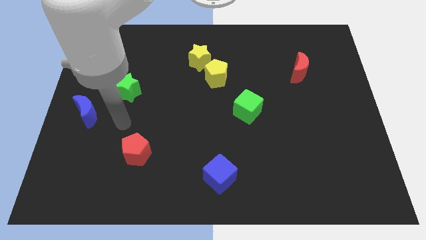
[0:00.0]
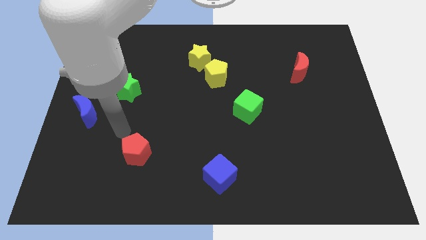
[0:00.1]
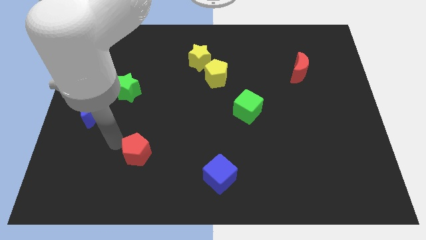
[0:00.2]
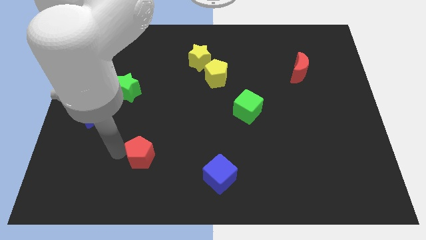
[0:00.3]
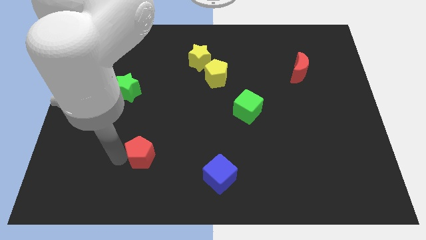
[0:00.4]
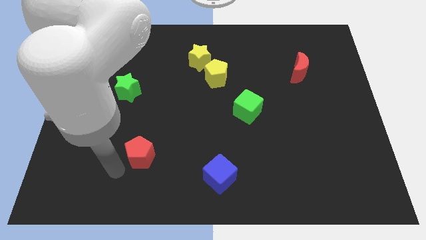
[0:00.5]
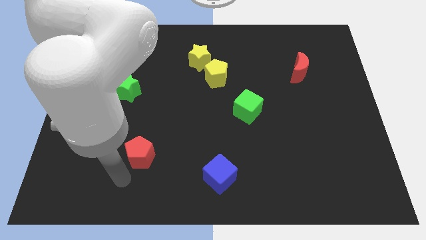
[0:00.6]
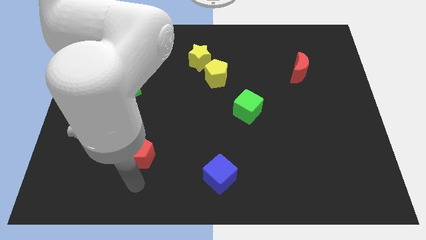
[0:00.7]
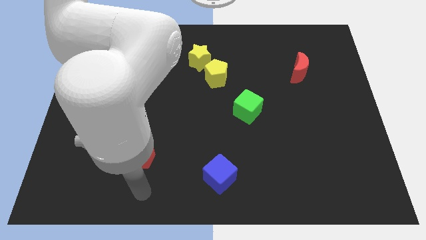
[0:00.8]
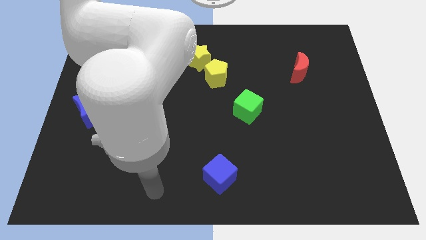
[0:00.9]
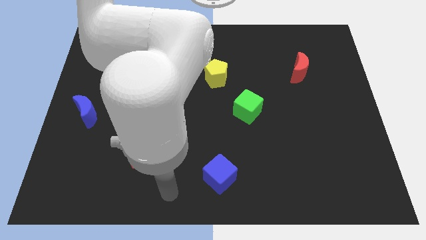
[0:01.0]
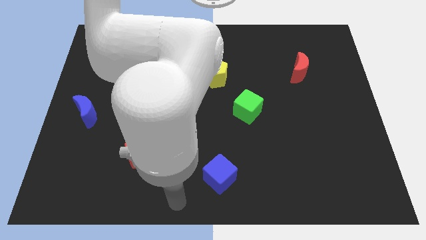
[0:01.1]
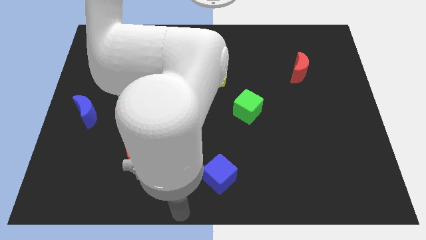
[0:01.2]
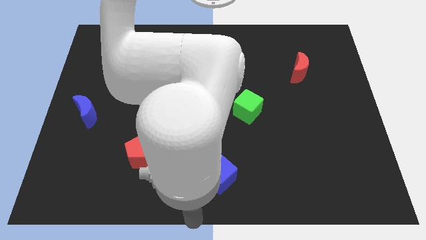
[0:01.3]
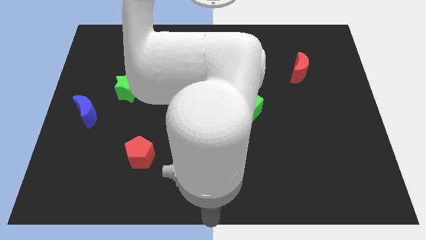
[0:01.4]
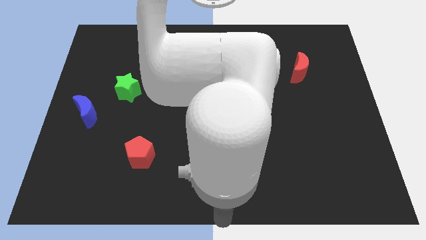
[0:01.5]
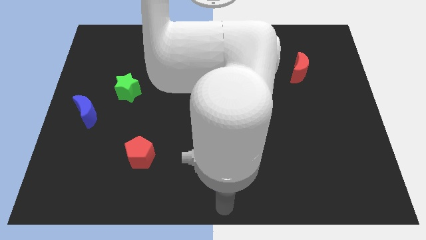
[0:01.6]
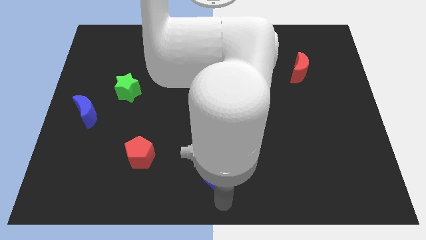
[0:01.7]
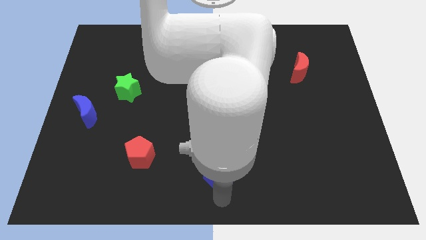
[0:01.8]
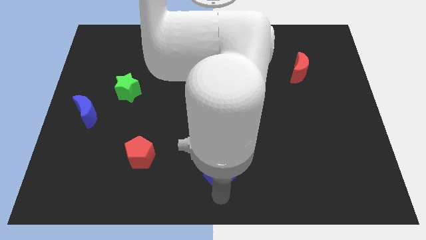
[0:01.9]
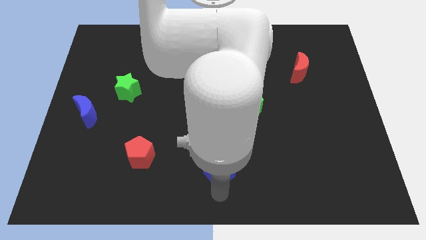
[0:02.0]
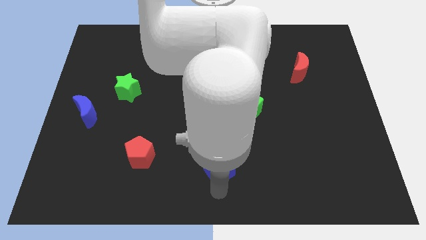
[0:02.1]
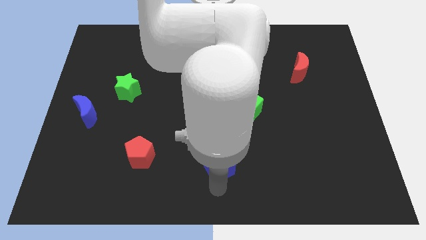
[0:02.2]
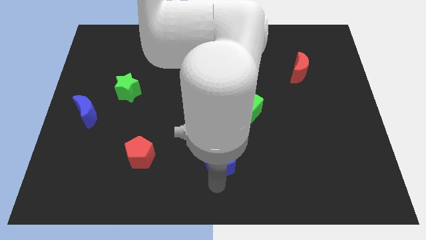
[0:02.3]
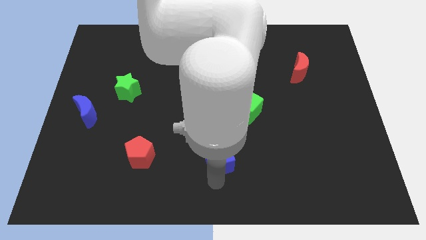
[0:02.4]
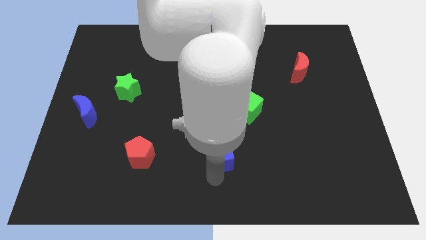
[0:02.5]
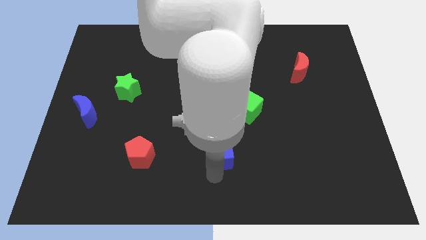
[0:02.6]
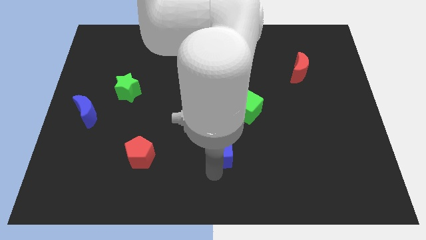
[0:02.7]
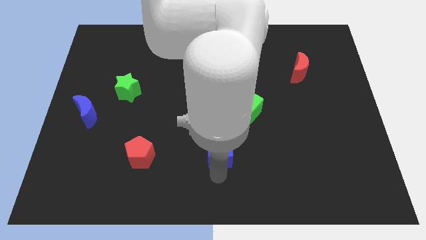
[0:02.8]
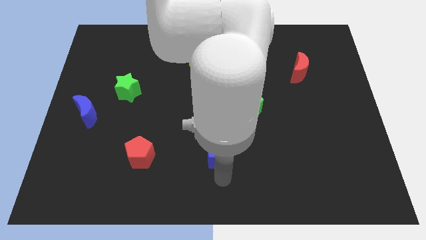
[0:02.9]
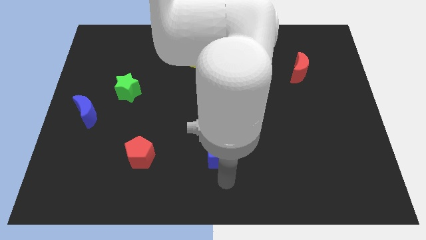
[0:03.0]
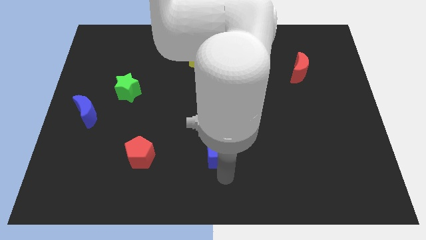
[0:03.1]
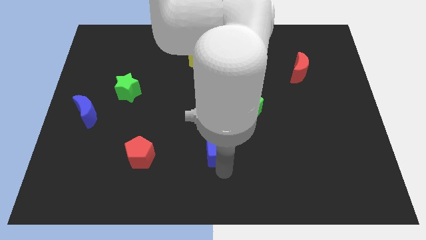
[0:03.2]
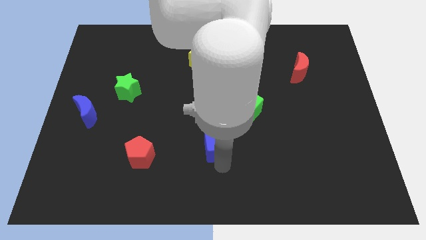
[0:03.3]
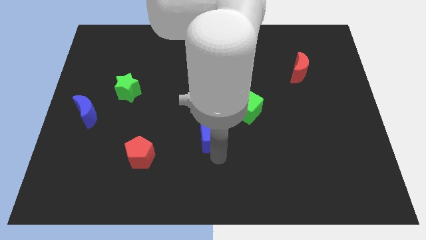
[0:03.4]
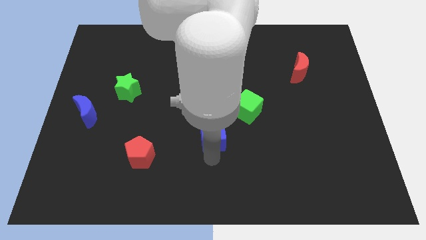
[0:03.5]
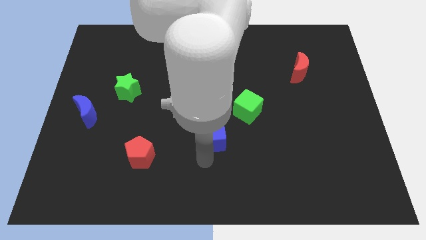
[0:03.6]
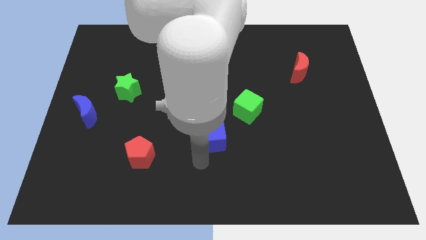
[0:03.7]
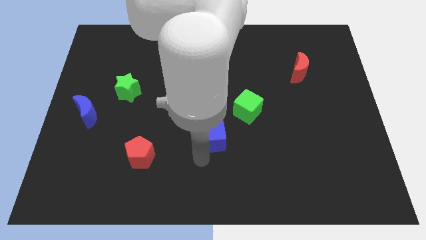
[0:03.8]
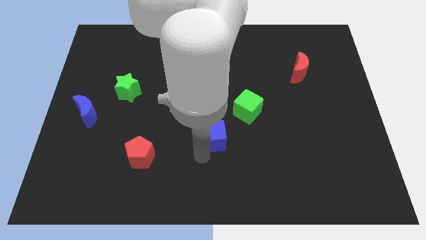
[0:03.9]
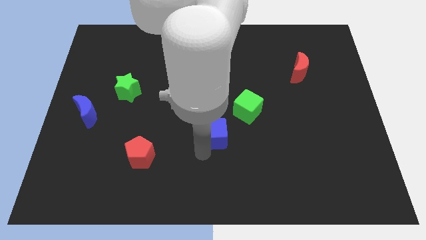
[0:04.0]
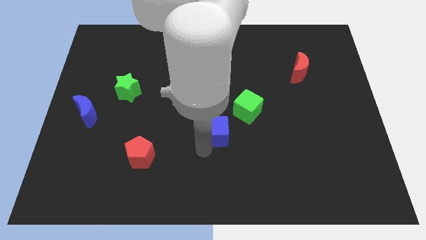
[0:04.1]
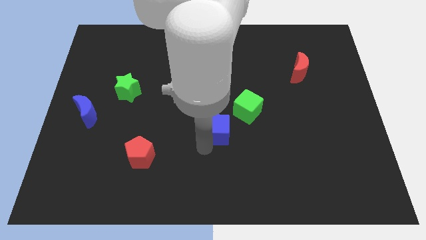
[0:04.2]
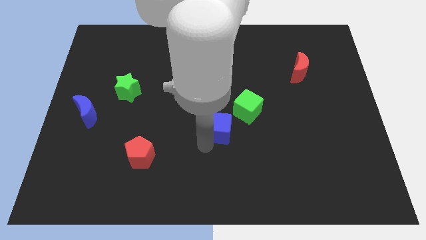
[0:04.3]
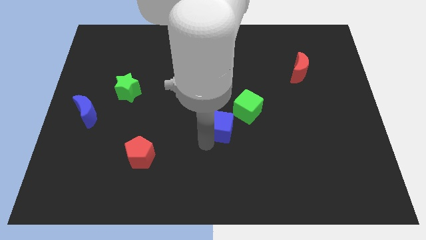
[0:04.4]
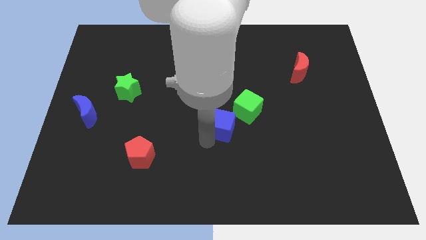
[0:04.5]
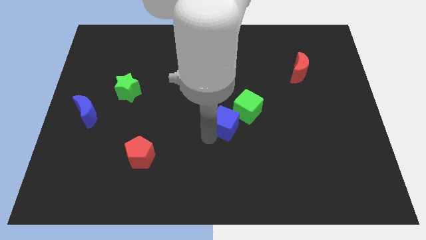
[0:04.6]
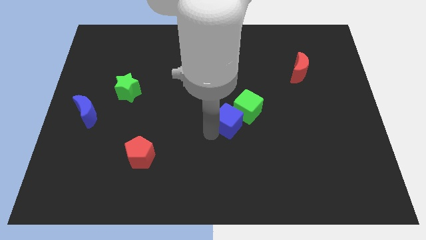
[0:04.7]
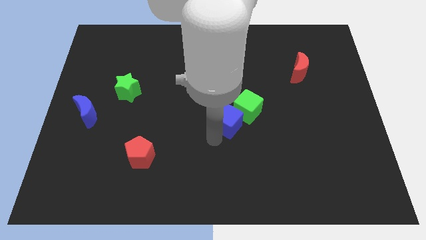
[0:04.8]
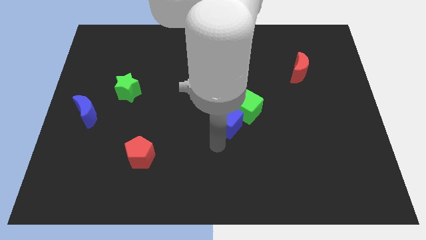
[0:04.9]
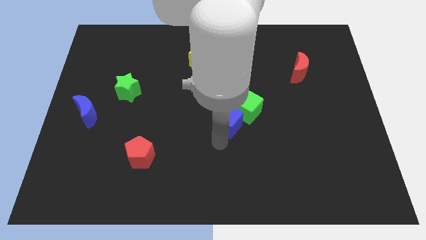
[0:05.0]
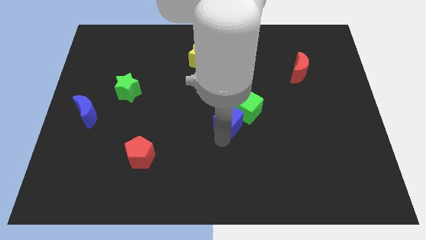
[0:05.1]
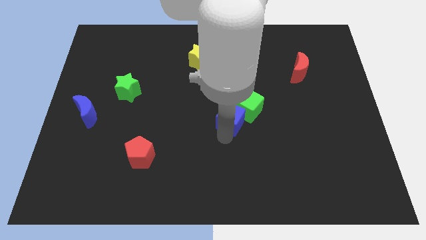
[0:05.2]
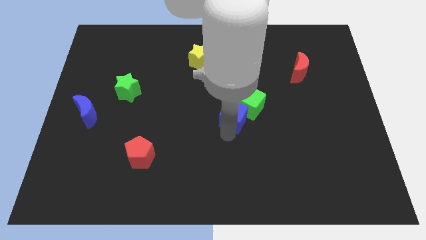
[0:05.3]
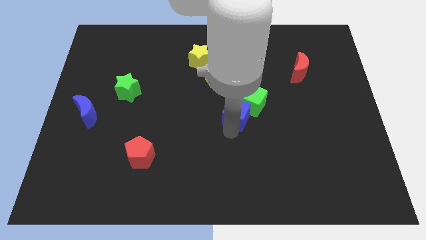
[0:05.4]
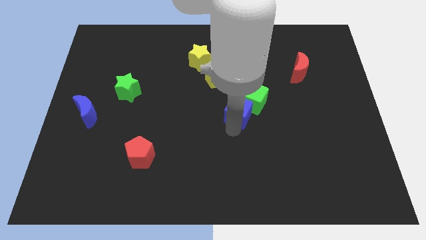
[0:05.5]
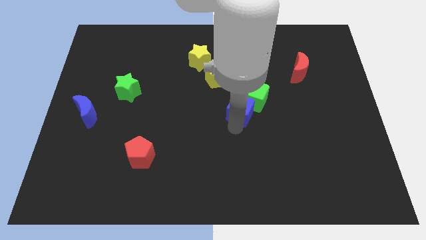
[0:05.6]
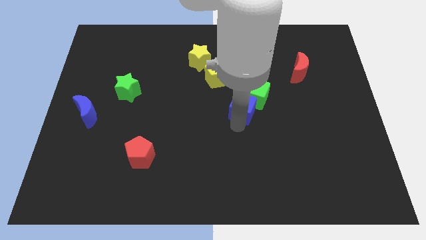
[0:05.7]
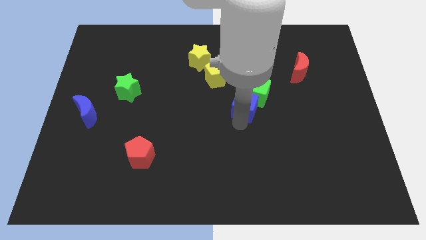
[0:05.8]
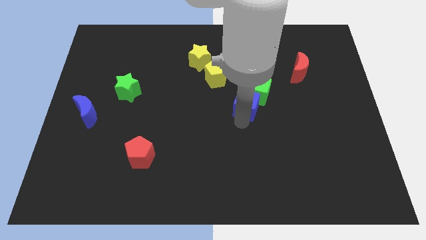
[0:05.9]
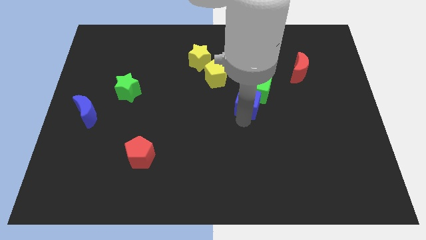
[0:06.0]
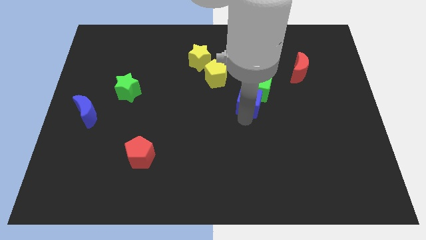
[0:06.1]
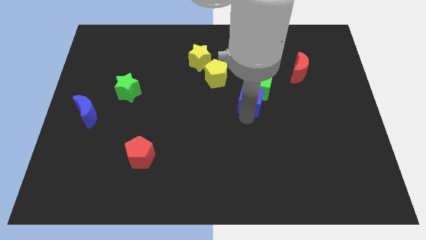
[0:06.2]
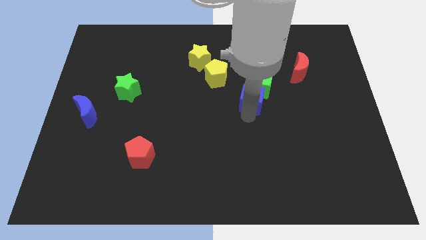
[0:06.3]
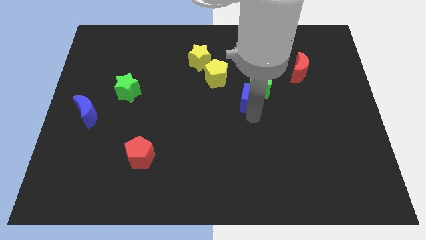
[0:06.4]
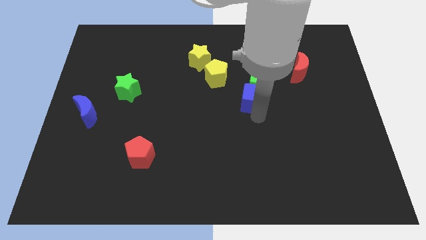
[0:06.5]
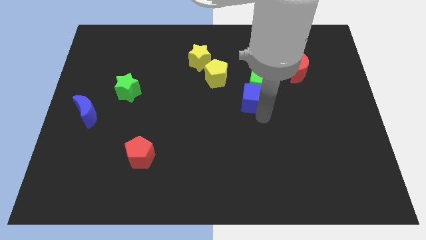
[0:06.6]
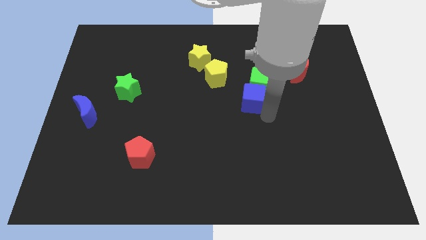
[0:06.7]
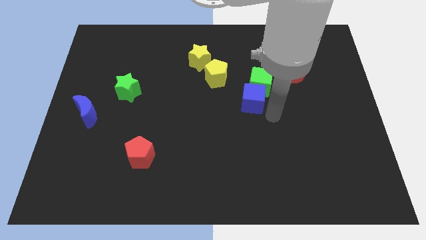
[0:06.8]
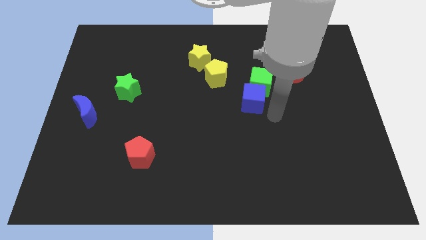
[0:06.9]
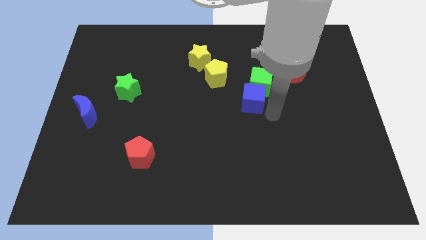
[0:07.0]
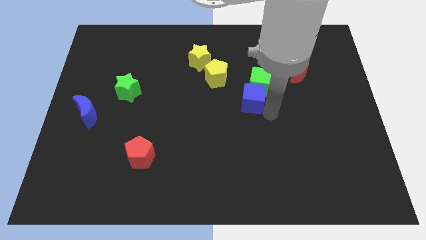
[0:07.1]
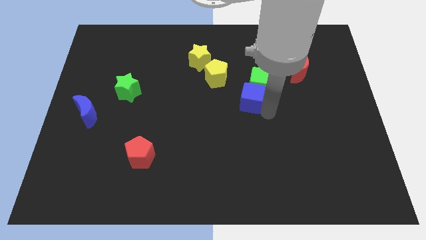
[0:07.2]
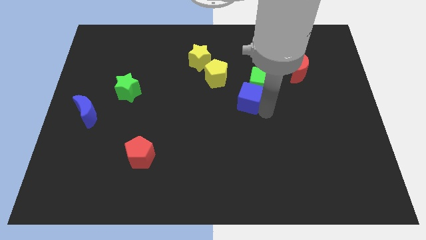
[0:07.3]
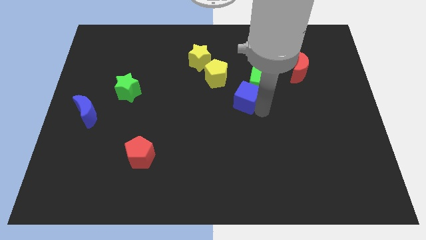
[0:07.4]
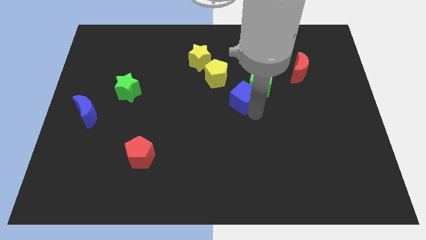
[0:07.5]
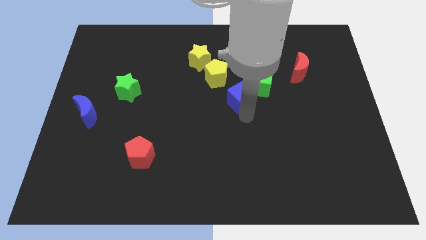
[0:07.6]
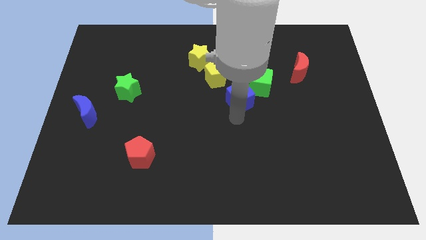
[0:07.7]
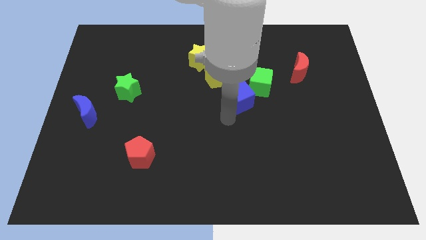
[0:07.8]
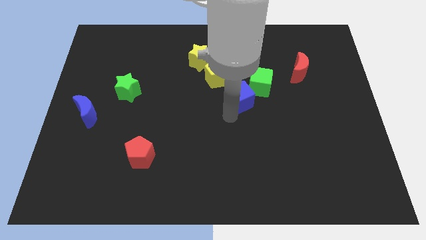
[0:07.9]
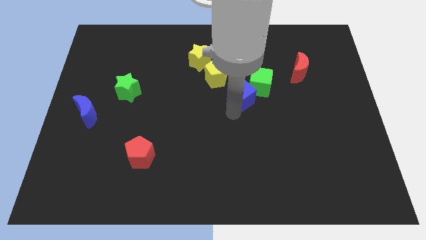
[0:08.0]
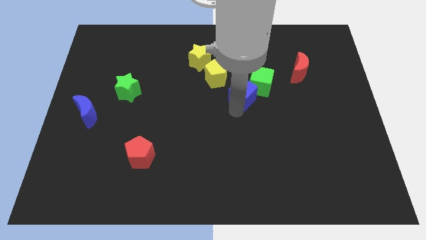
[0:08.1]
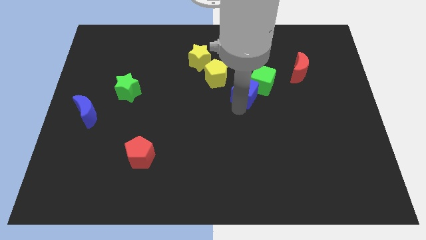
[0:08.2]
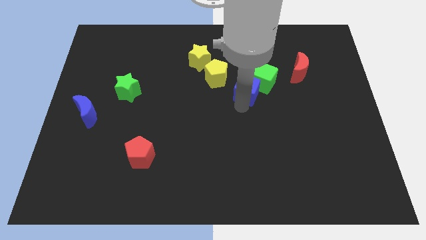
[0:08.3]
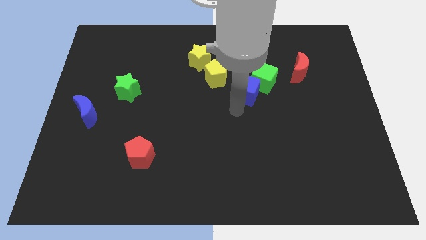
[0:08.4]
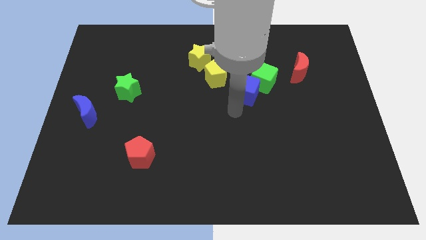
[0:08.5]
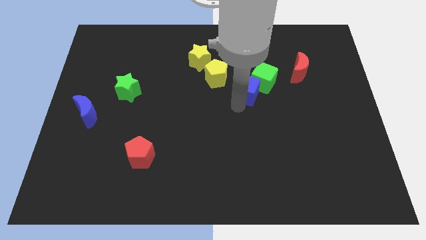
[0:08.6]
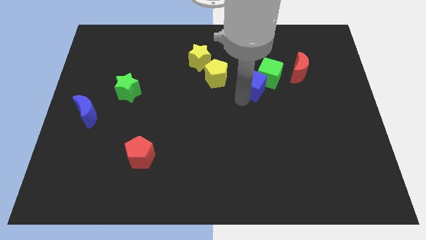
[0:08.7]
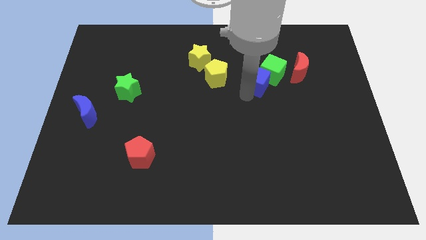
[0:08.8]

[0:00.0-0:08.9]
push the blue cube to the left side of the red moon
